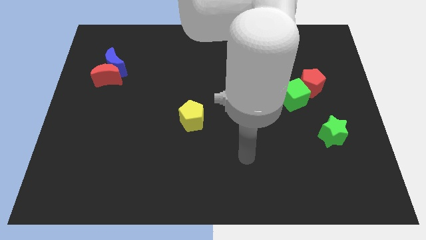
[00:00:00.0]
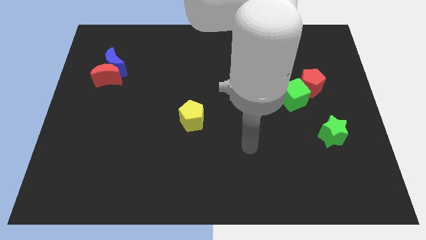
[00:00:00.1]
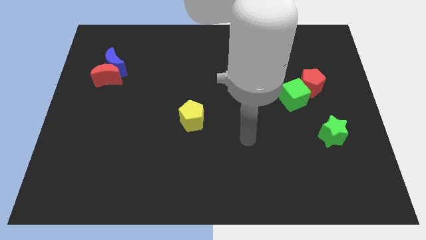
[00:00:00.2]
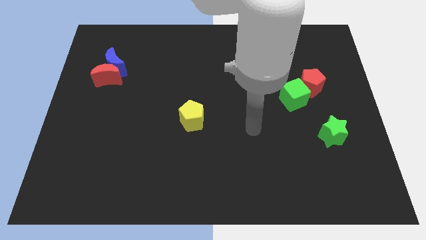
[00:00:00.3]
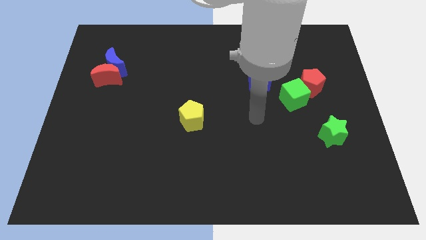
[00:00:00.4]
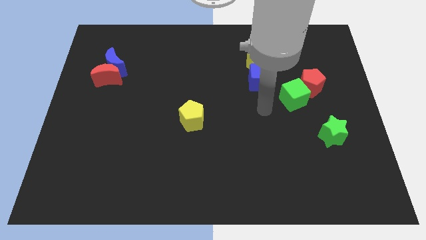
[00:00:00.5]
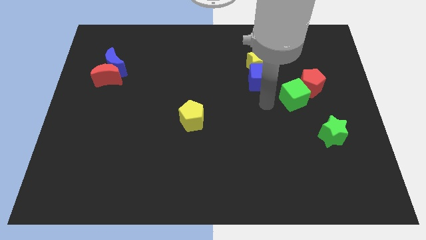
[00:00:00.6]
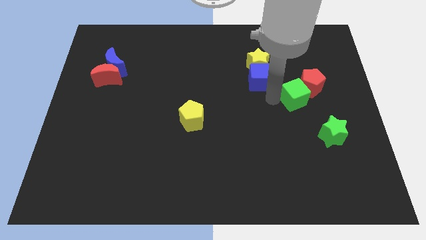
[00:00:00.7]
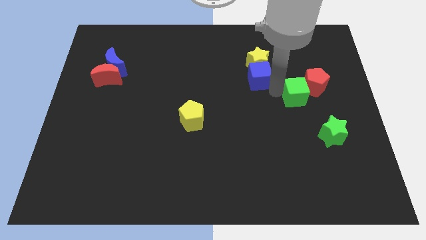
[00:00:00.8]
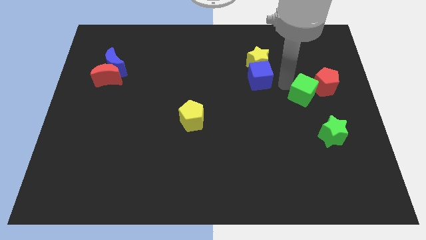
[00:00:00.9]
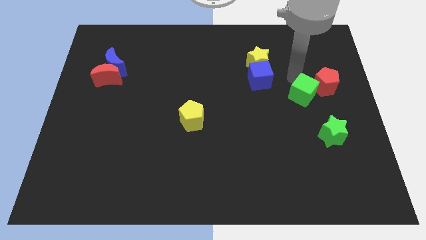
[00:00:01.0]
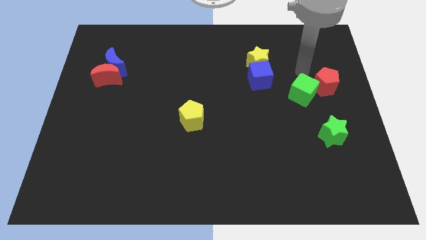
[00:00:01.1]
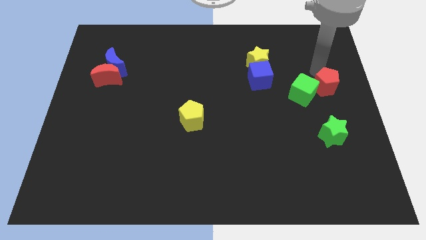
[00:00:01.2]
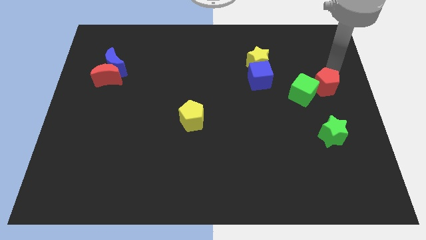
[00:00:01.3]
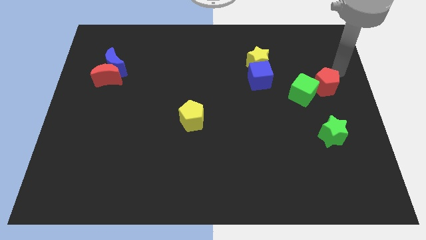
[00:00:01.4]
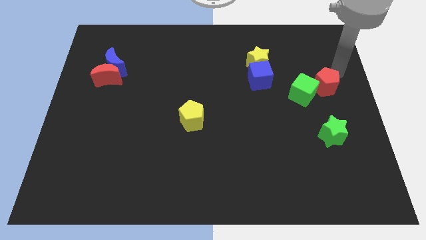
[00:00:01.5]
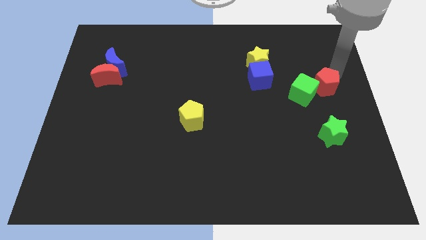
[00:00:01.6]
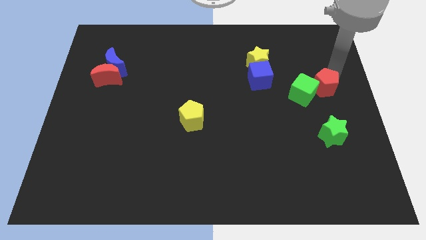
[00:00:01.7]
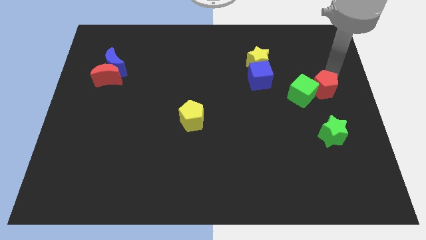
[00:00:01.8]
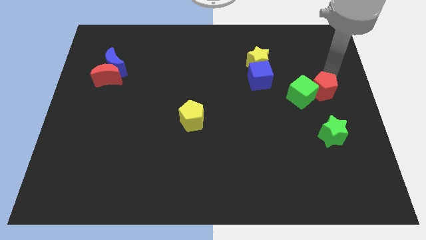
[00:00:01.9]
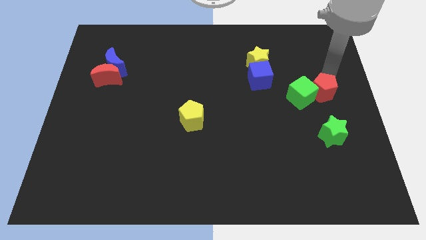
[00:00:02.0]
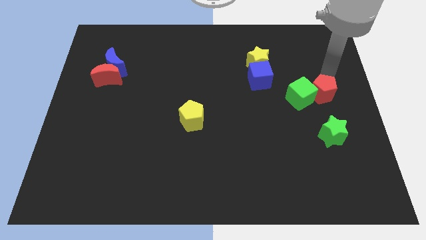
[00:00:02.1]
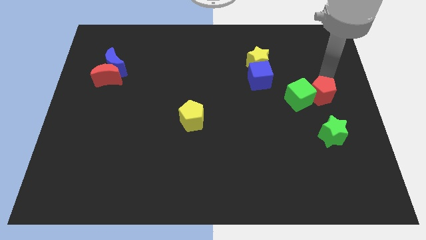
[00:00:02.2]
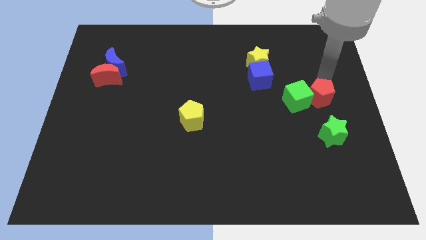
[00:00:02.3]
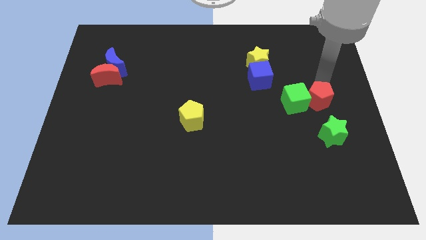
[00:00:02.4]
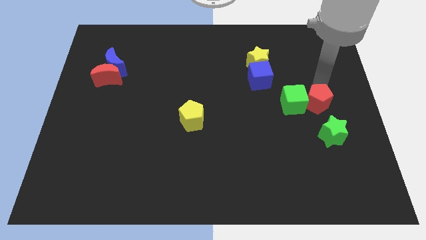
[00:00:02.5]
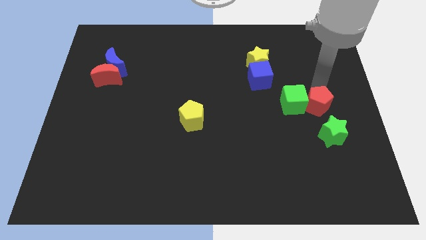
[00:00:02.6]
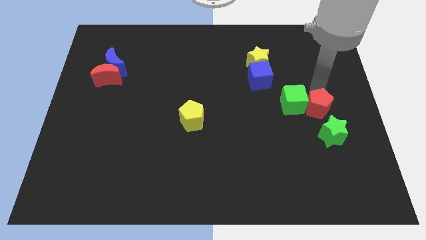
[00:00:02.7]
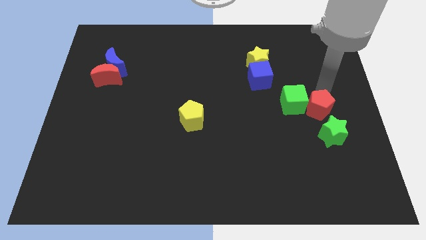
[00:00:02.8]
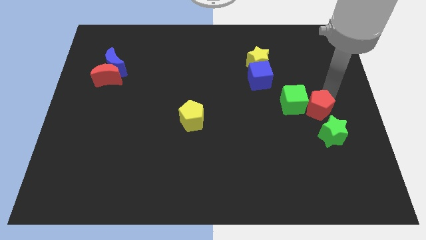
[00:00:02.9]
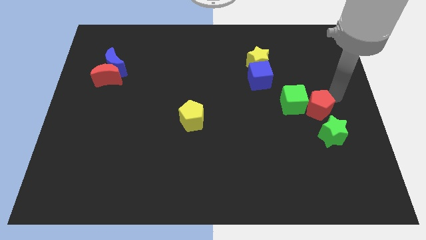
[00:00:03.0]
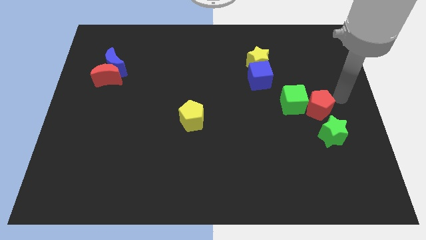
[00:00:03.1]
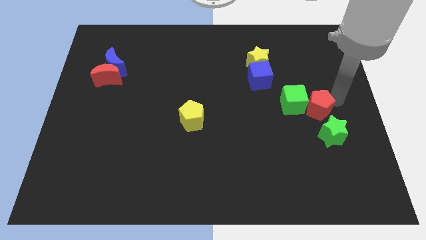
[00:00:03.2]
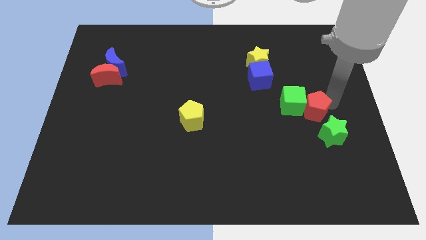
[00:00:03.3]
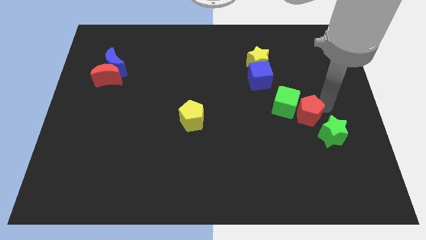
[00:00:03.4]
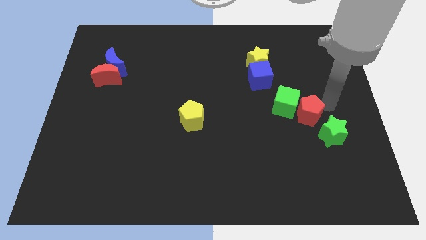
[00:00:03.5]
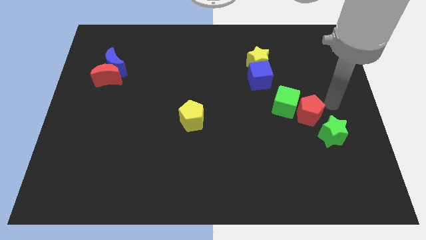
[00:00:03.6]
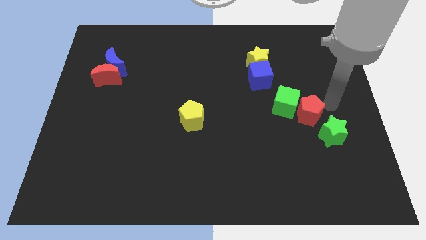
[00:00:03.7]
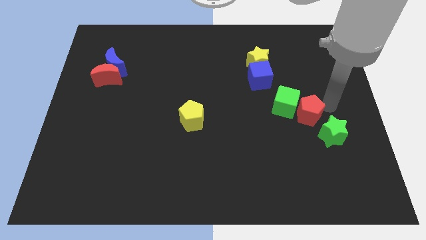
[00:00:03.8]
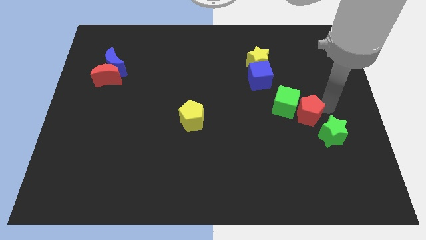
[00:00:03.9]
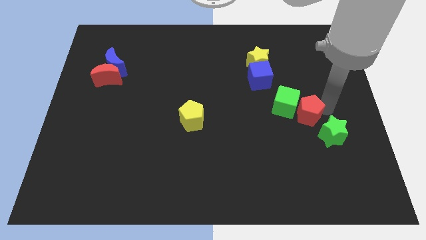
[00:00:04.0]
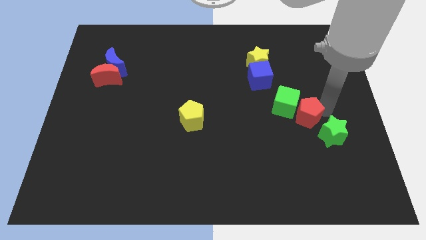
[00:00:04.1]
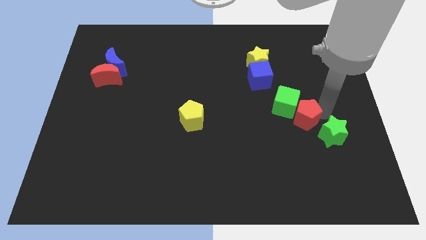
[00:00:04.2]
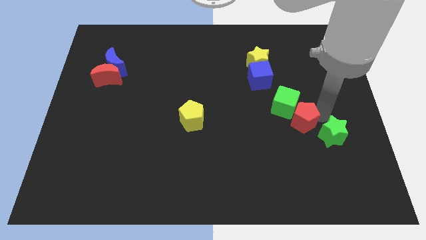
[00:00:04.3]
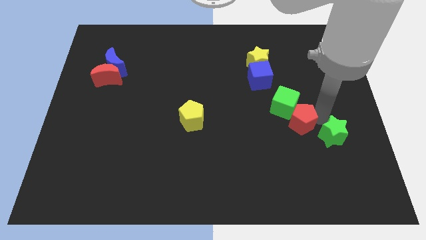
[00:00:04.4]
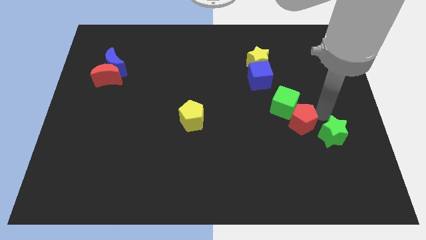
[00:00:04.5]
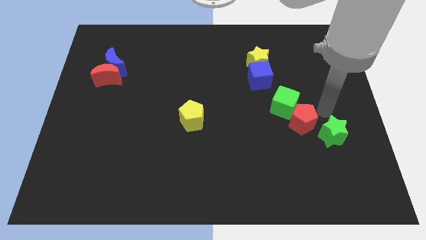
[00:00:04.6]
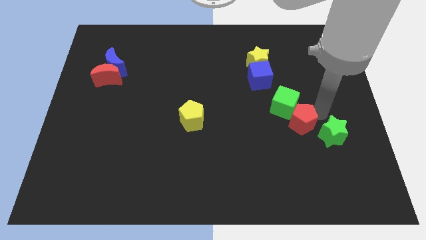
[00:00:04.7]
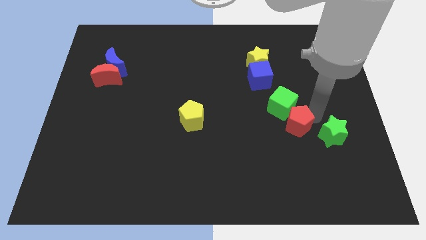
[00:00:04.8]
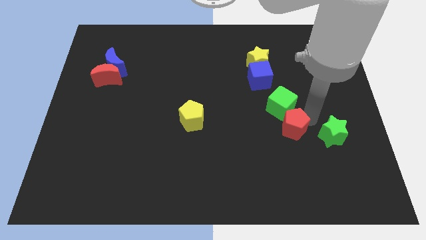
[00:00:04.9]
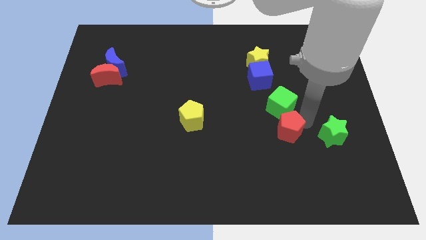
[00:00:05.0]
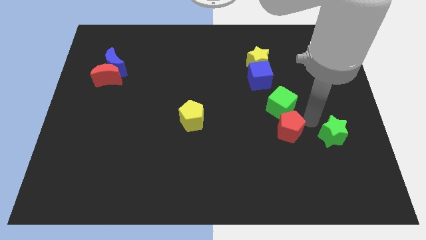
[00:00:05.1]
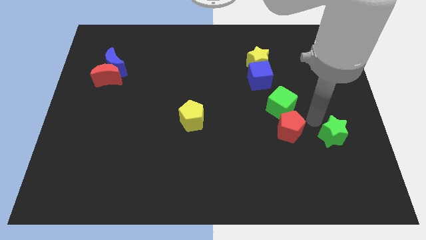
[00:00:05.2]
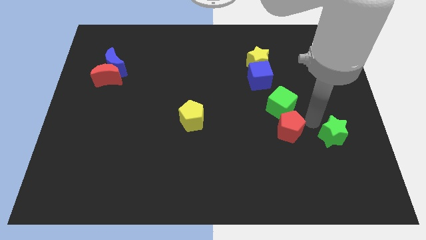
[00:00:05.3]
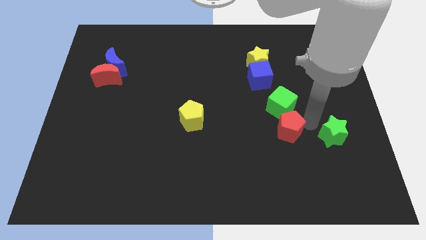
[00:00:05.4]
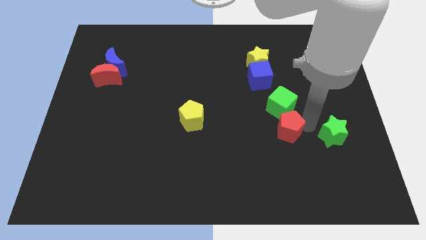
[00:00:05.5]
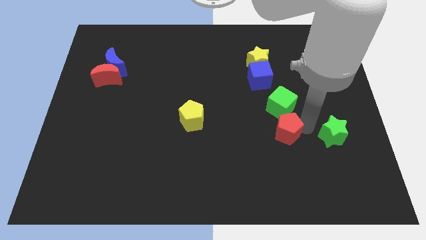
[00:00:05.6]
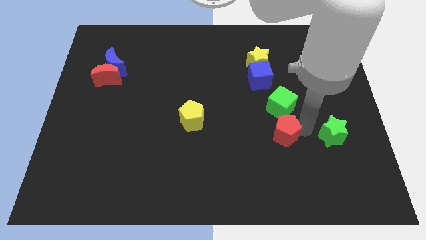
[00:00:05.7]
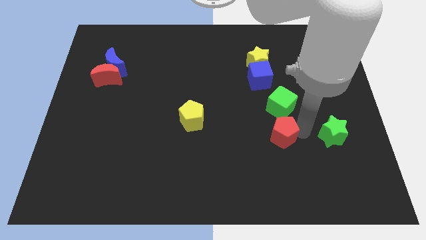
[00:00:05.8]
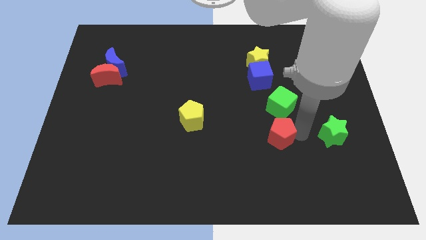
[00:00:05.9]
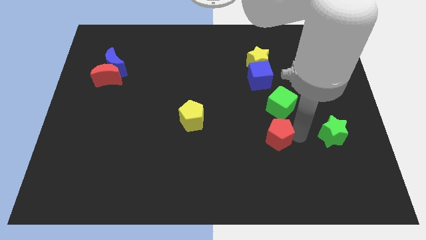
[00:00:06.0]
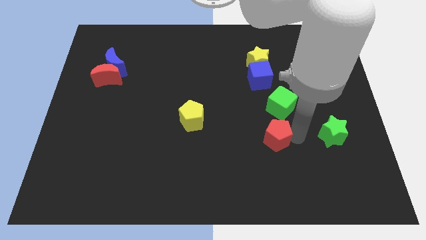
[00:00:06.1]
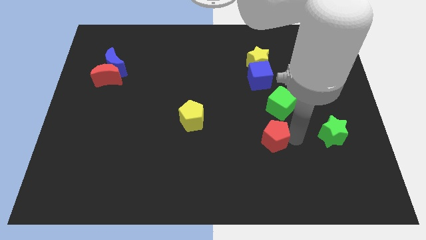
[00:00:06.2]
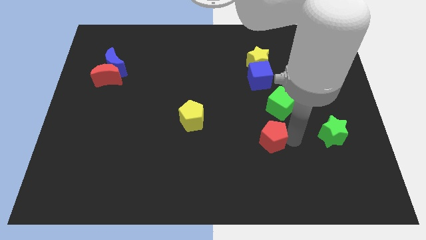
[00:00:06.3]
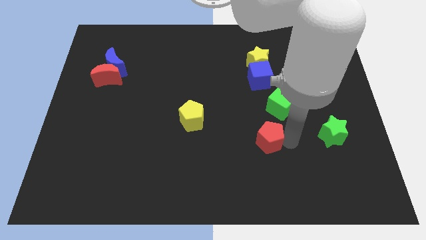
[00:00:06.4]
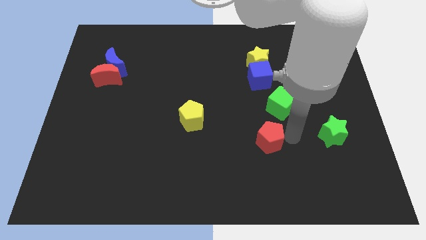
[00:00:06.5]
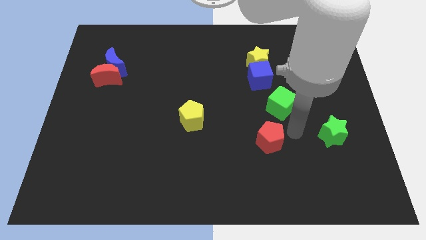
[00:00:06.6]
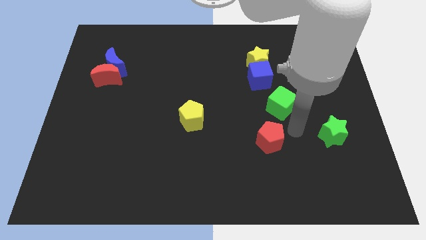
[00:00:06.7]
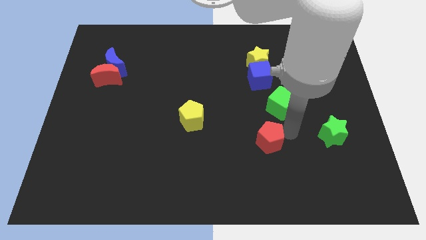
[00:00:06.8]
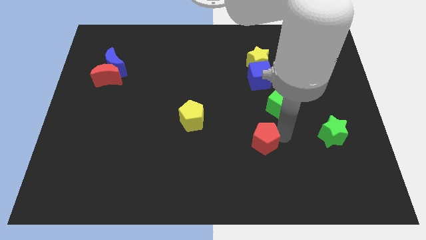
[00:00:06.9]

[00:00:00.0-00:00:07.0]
move the red pentagon down and left diagonally

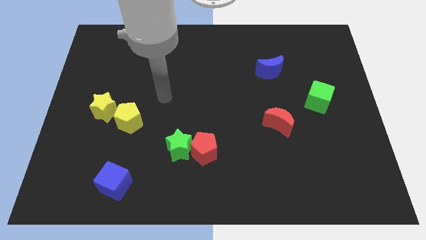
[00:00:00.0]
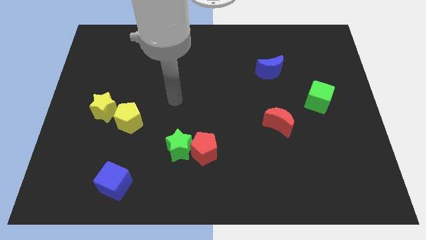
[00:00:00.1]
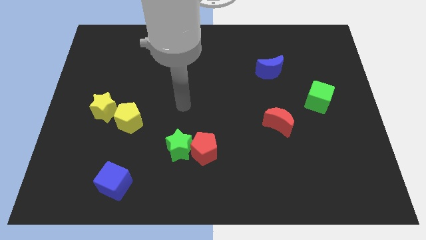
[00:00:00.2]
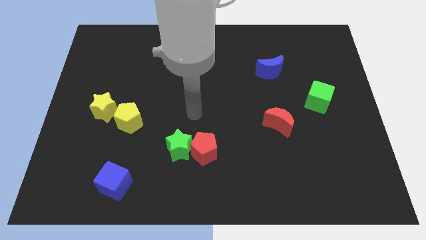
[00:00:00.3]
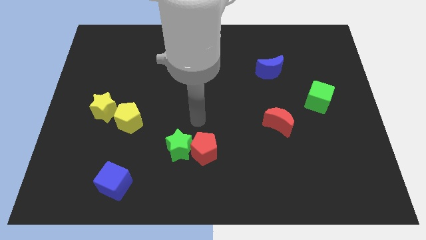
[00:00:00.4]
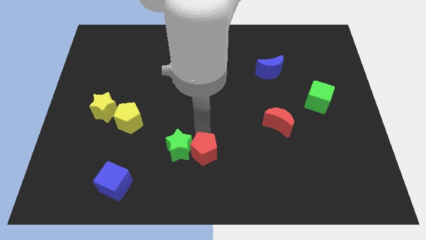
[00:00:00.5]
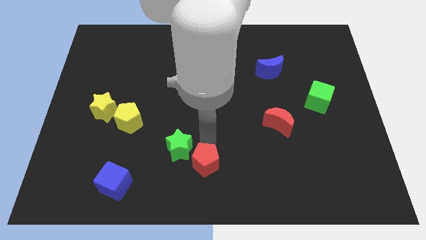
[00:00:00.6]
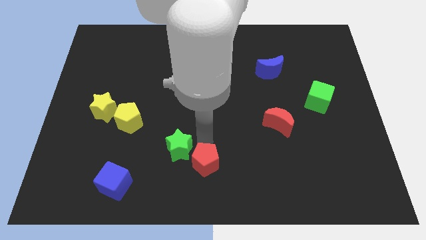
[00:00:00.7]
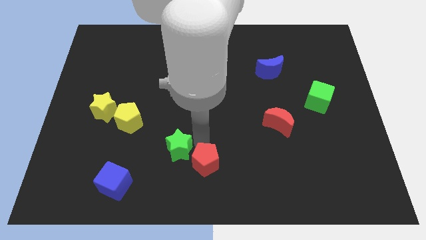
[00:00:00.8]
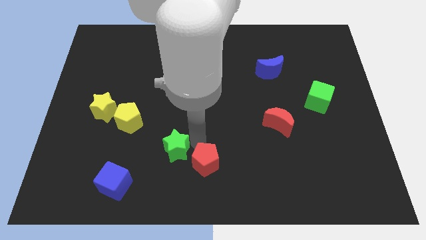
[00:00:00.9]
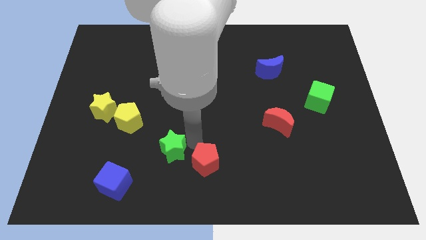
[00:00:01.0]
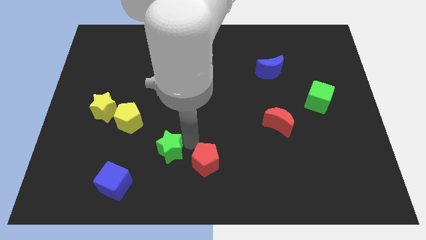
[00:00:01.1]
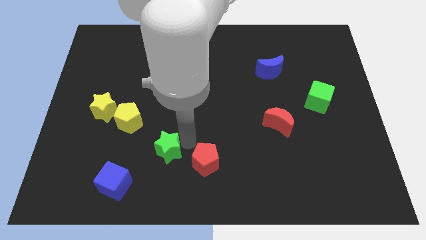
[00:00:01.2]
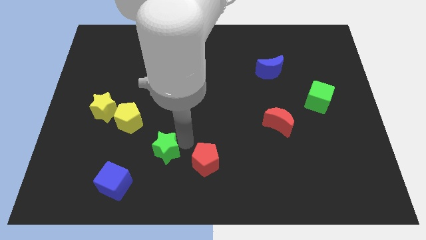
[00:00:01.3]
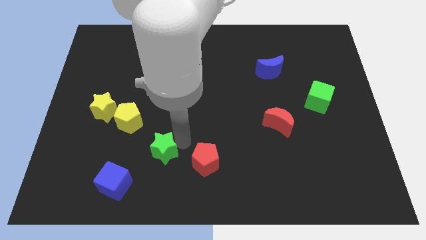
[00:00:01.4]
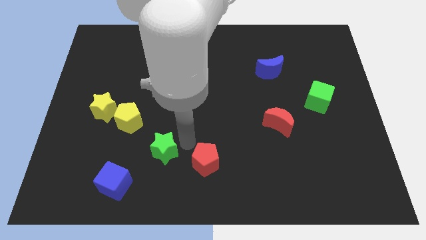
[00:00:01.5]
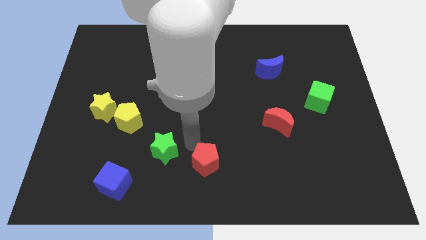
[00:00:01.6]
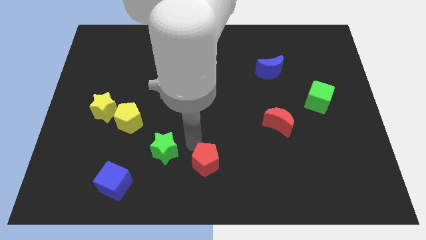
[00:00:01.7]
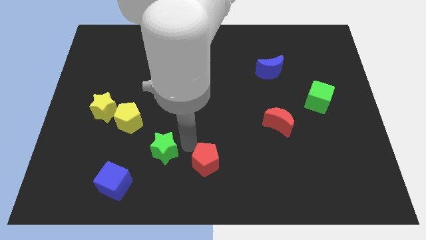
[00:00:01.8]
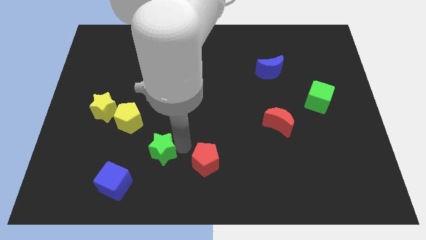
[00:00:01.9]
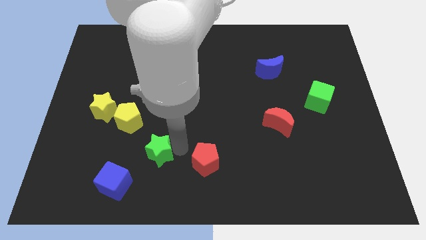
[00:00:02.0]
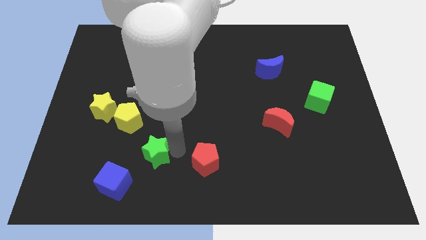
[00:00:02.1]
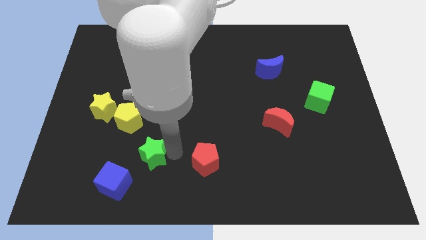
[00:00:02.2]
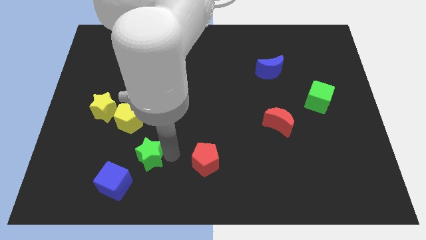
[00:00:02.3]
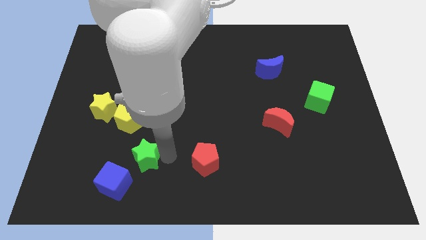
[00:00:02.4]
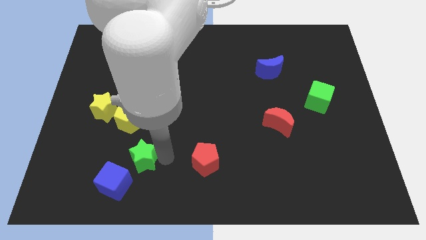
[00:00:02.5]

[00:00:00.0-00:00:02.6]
push the green star to the left somewhat
